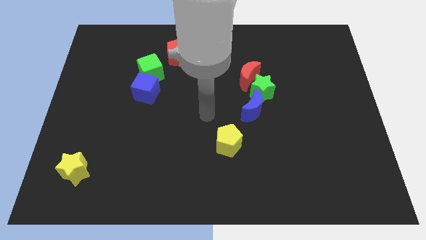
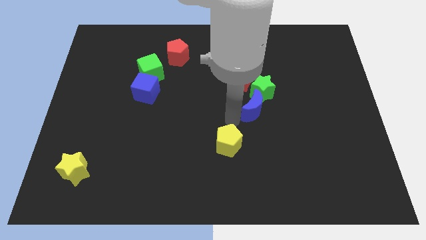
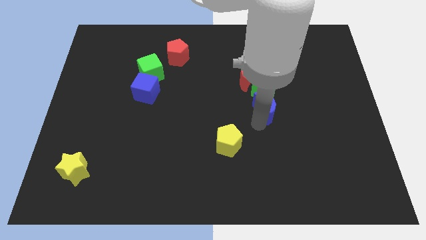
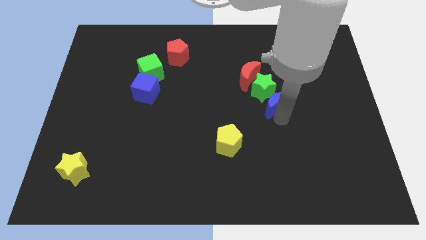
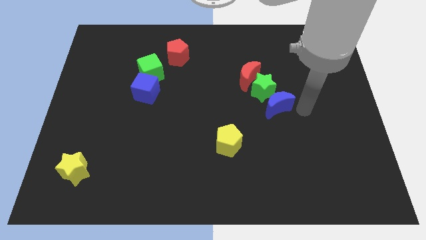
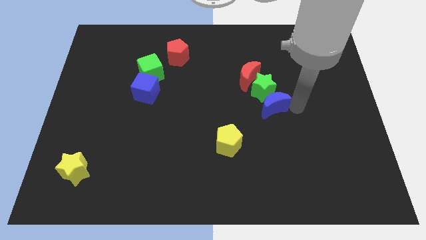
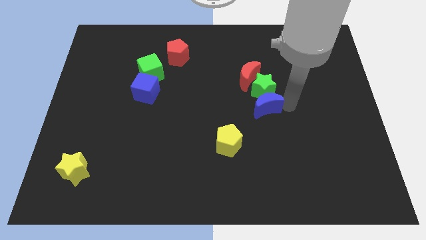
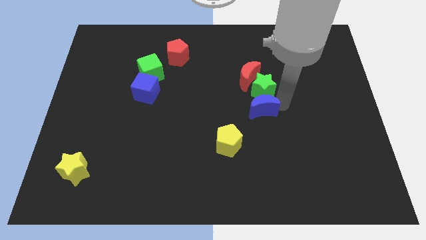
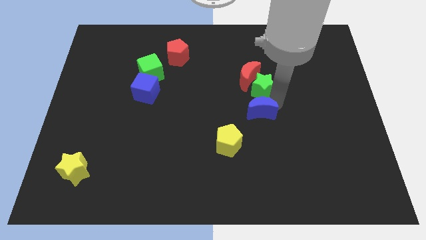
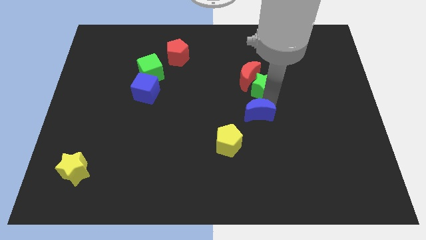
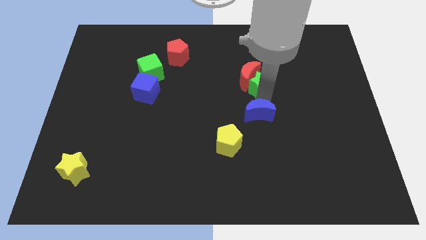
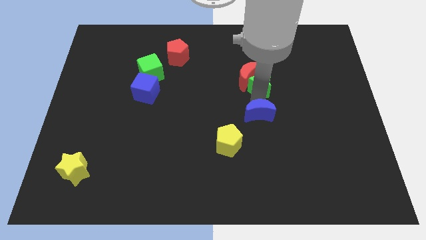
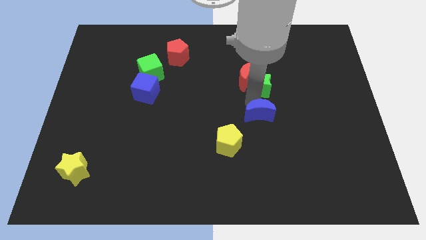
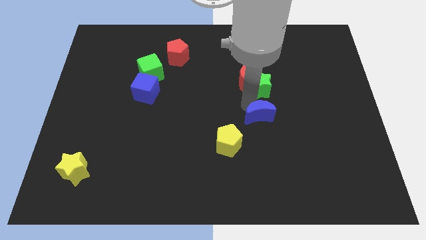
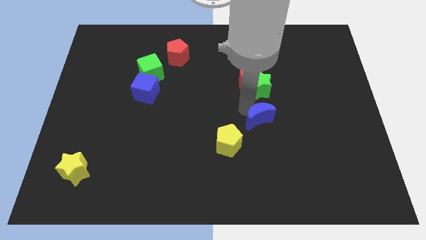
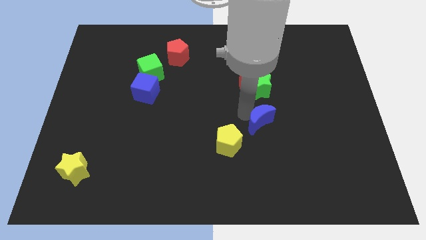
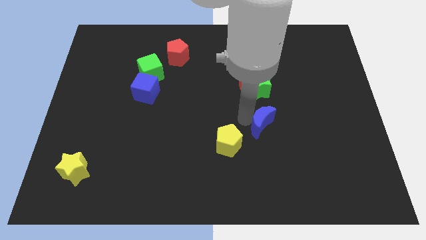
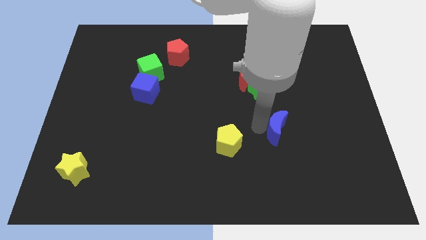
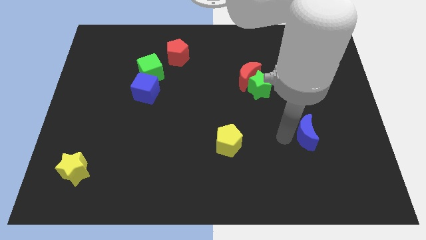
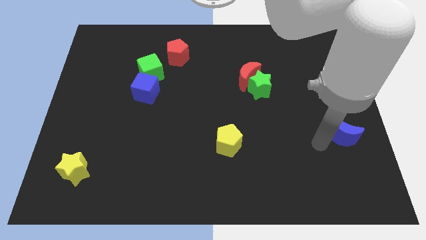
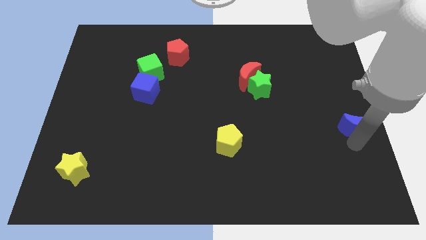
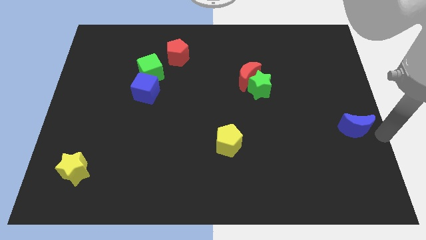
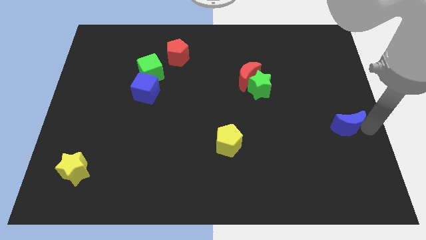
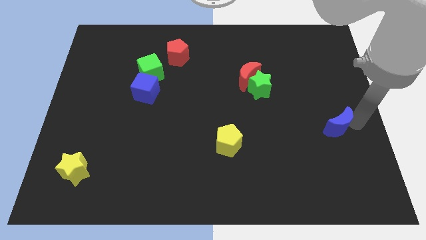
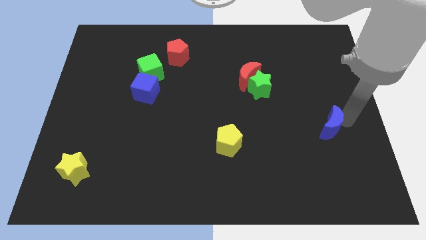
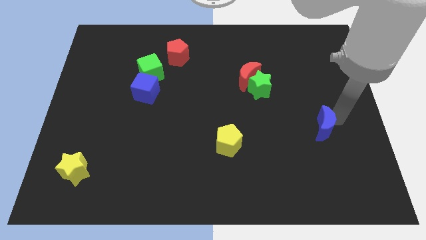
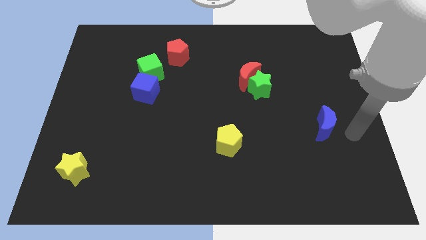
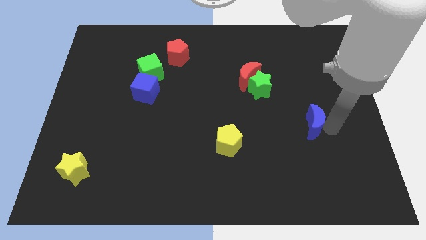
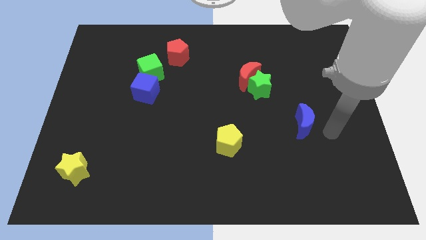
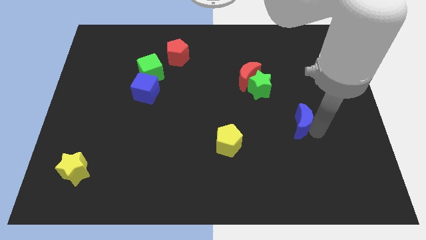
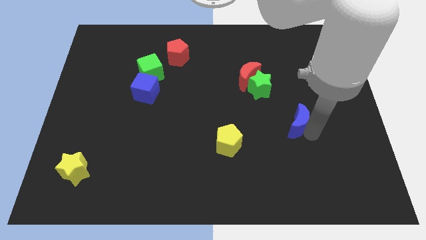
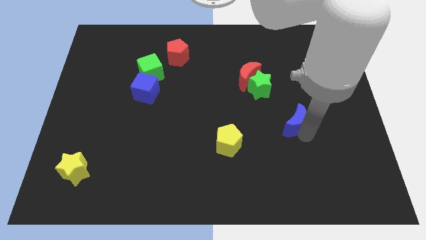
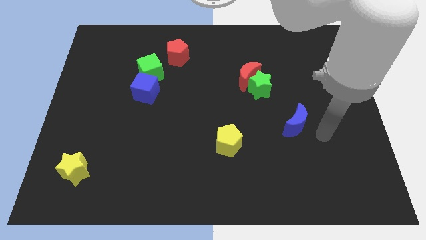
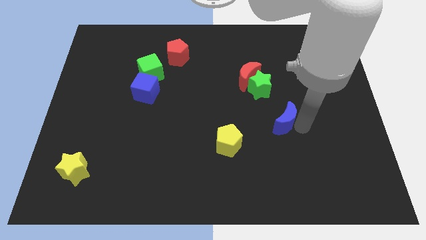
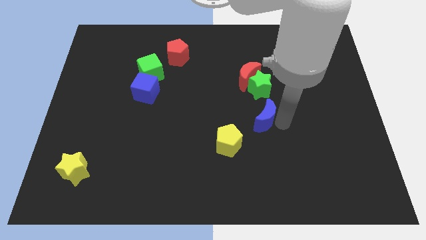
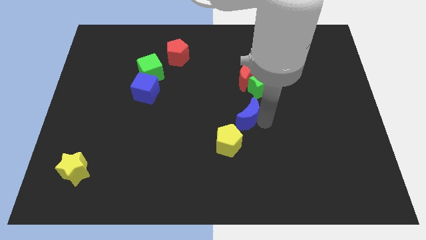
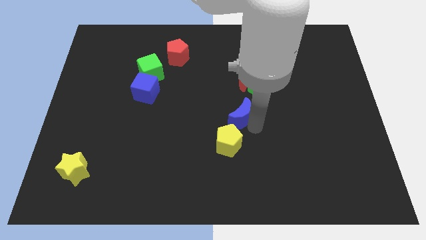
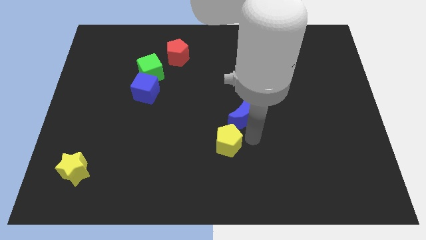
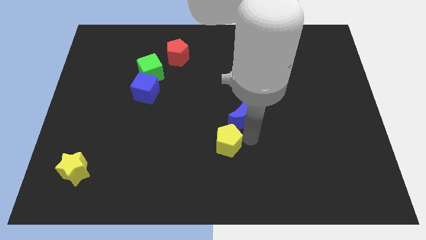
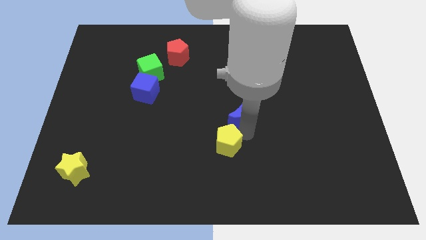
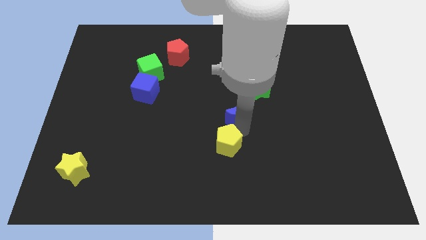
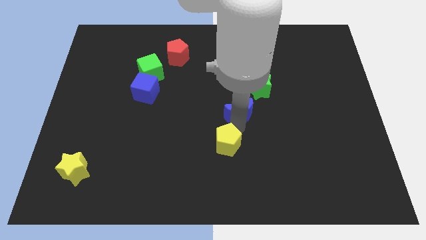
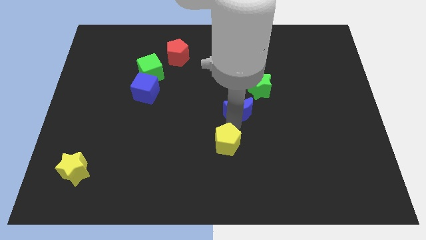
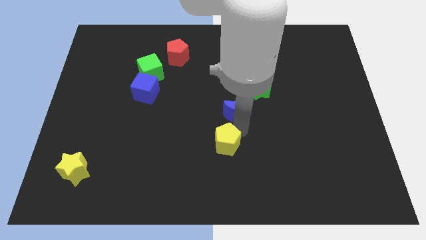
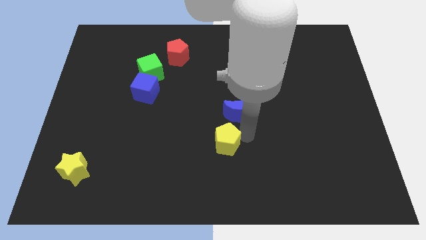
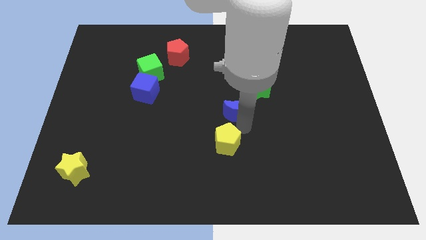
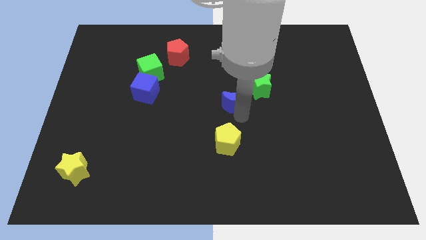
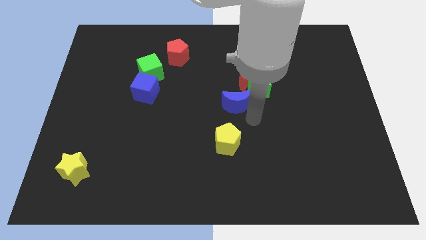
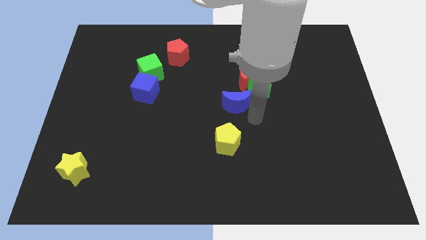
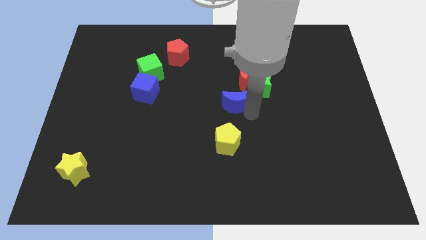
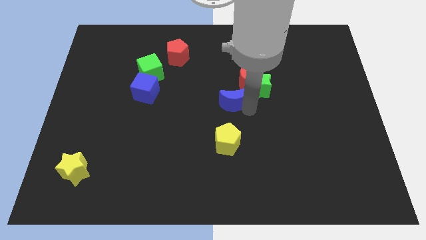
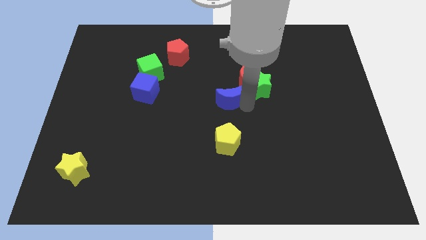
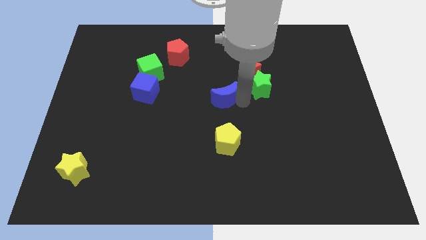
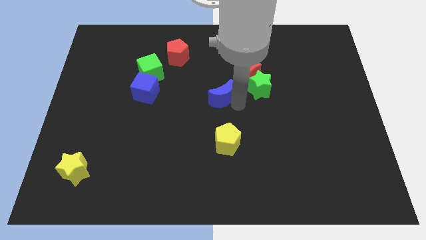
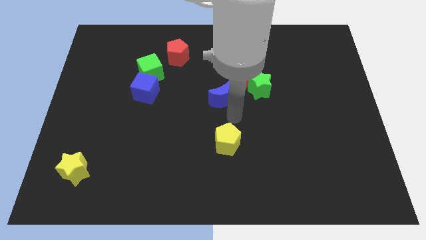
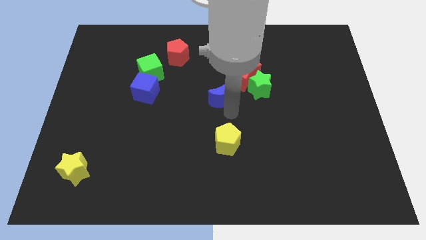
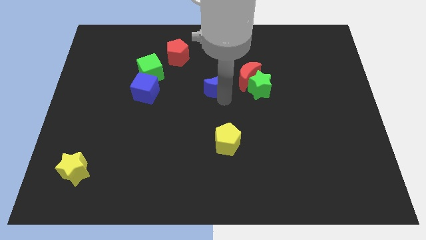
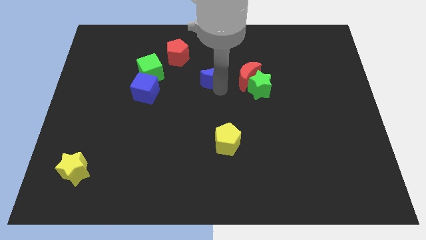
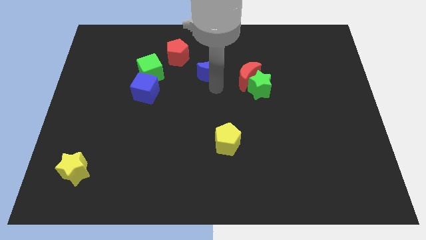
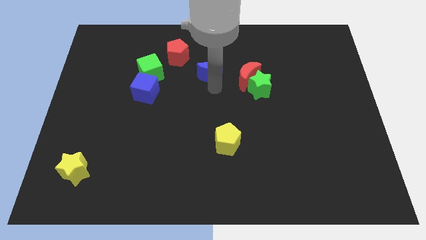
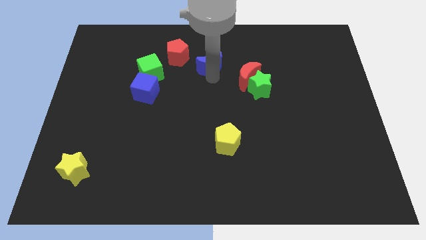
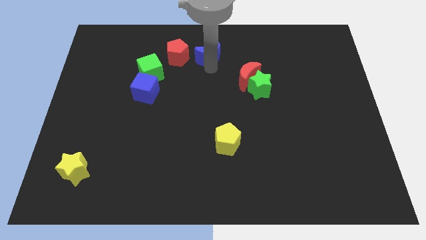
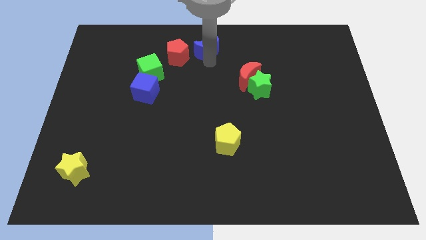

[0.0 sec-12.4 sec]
move the blue moon to the top side
